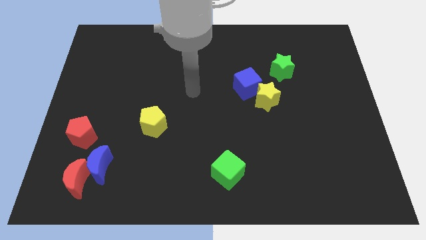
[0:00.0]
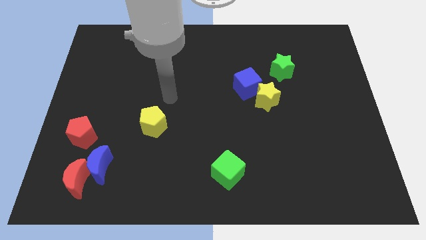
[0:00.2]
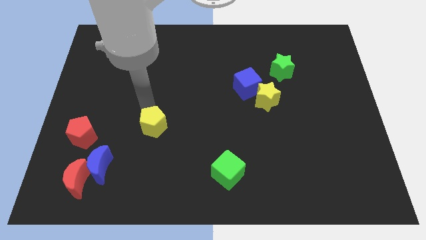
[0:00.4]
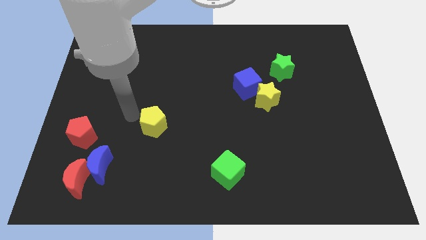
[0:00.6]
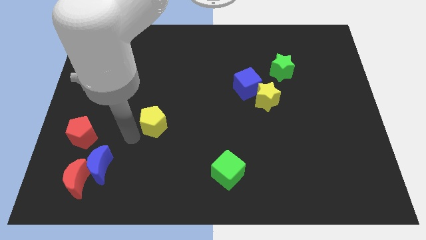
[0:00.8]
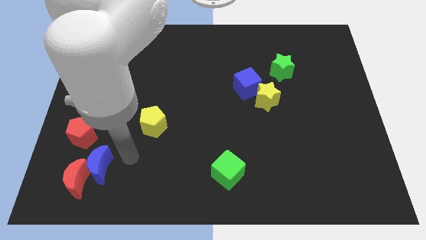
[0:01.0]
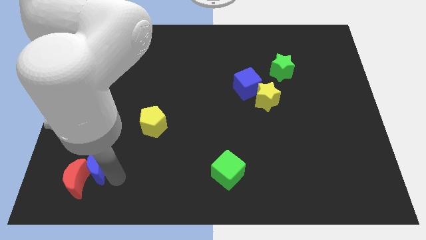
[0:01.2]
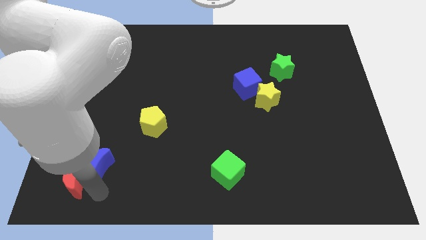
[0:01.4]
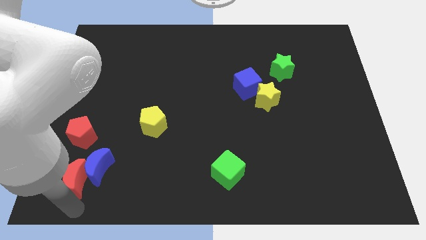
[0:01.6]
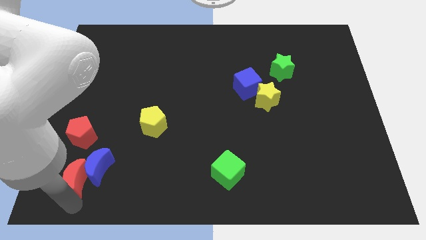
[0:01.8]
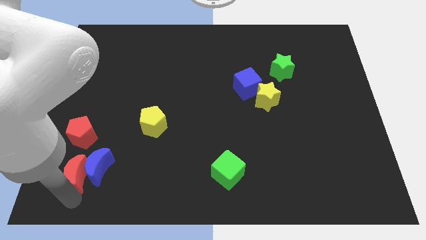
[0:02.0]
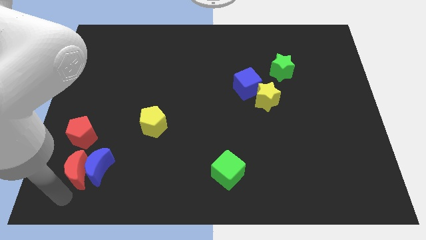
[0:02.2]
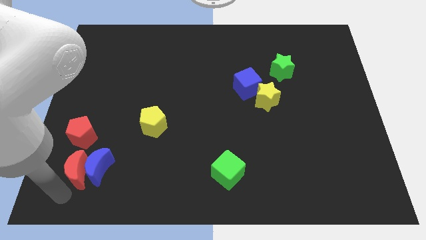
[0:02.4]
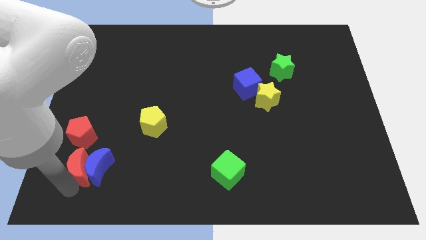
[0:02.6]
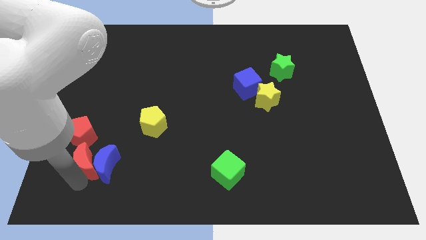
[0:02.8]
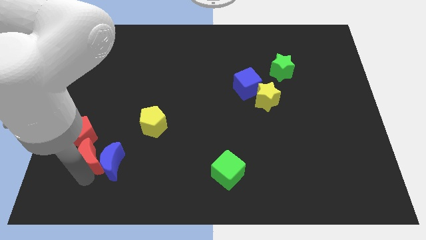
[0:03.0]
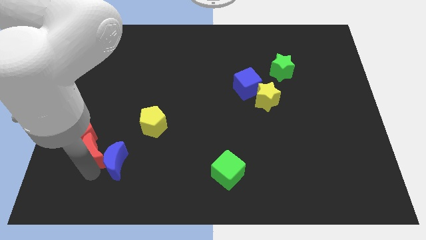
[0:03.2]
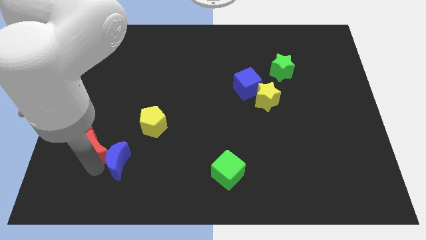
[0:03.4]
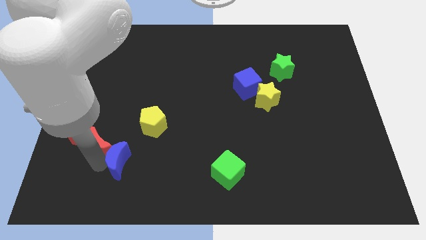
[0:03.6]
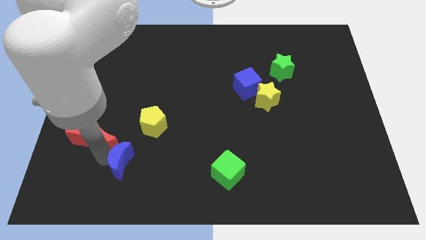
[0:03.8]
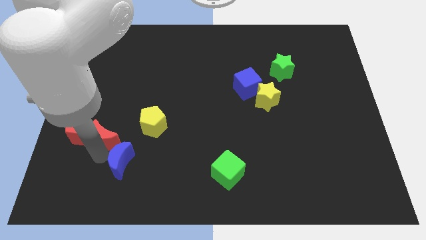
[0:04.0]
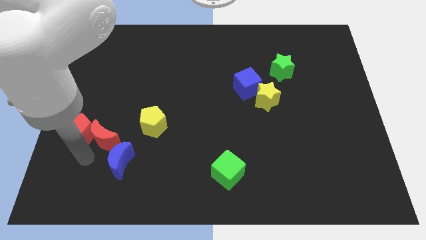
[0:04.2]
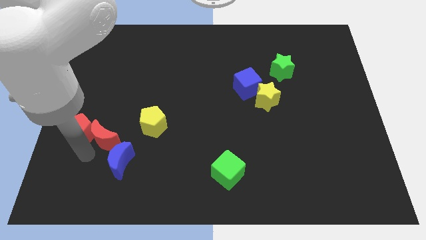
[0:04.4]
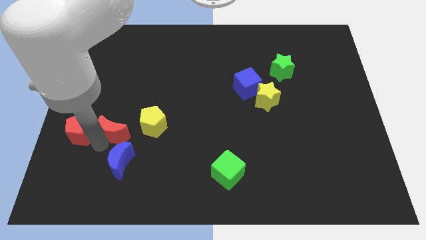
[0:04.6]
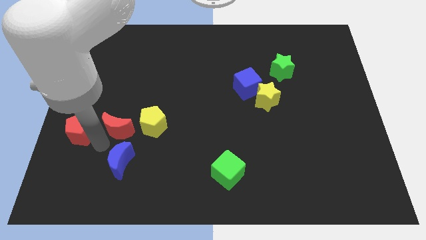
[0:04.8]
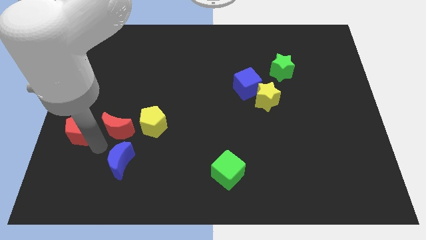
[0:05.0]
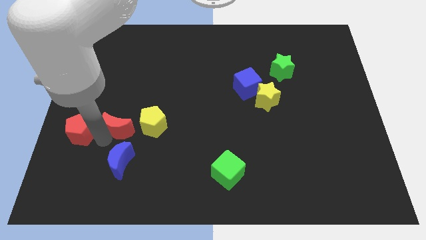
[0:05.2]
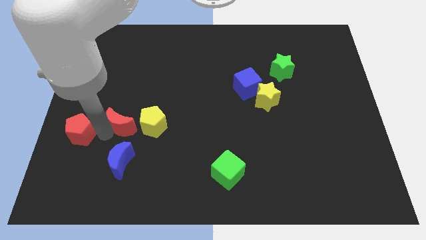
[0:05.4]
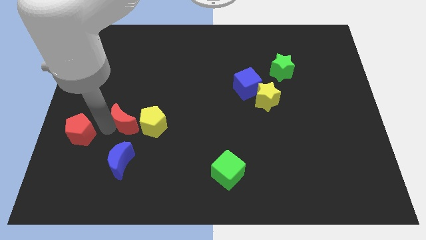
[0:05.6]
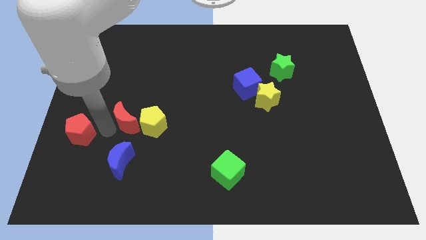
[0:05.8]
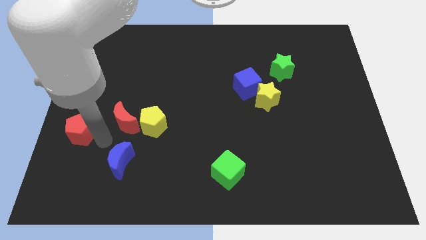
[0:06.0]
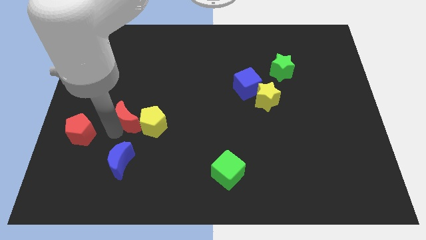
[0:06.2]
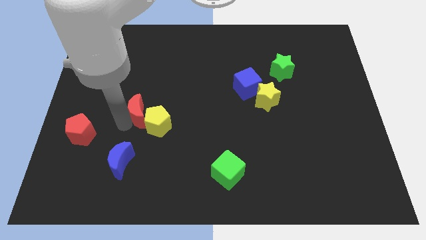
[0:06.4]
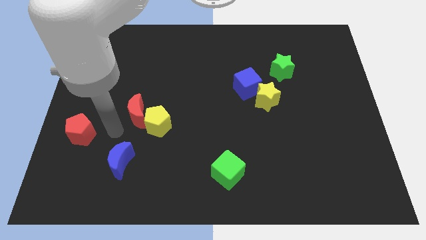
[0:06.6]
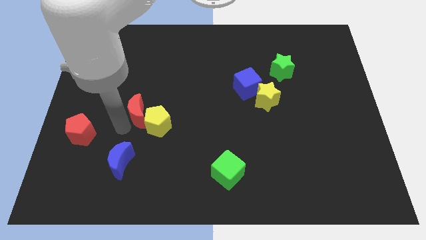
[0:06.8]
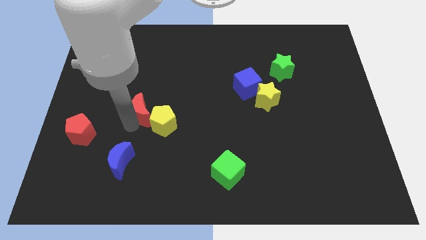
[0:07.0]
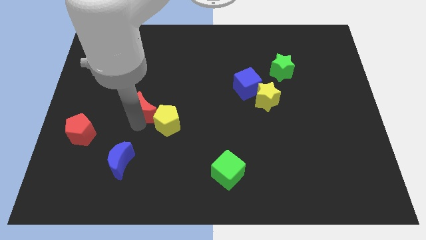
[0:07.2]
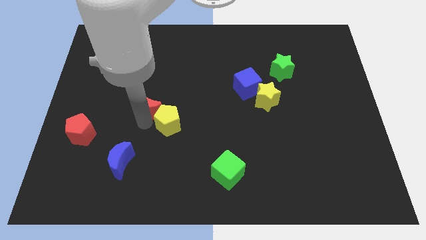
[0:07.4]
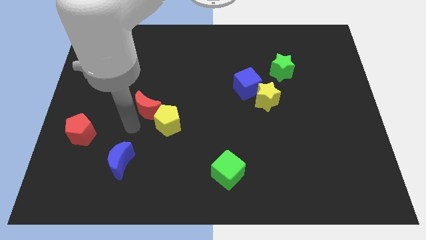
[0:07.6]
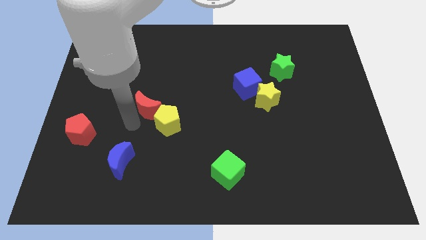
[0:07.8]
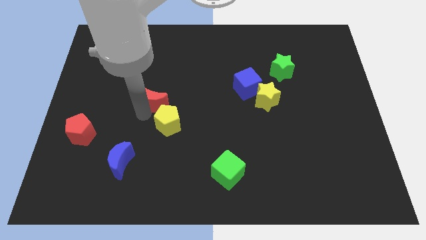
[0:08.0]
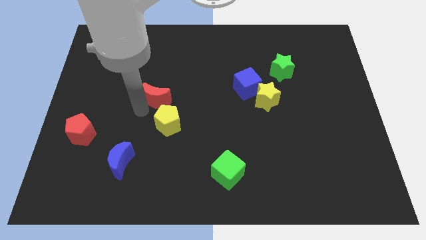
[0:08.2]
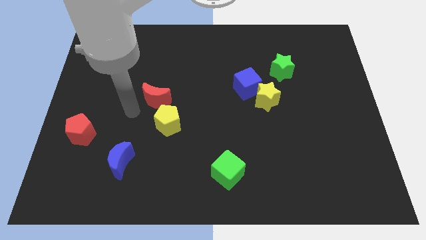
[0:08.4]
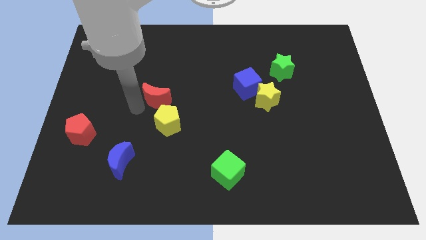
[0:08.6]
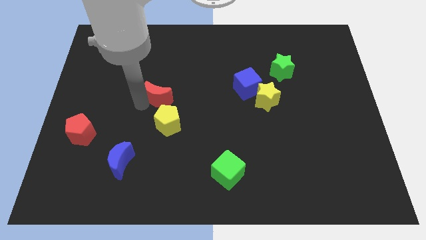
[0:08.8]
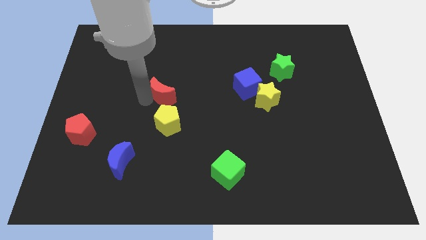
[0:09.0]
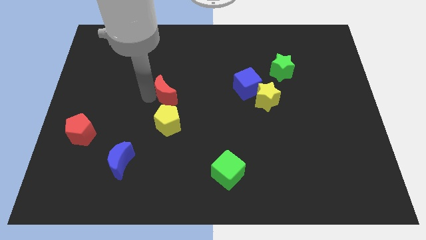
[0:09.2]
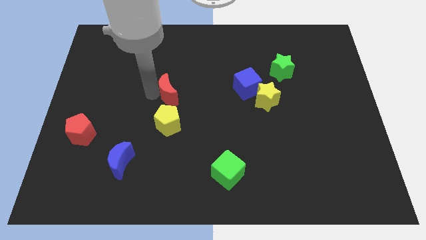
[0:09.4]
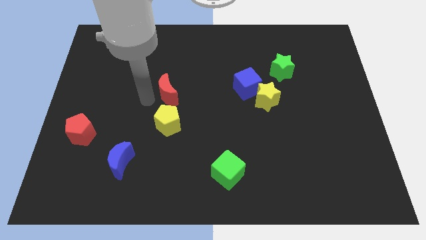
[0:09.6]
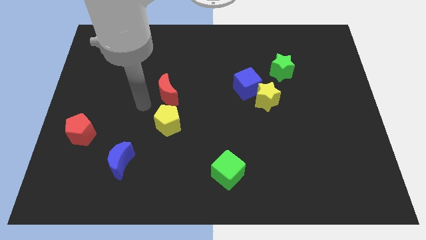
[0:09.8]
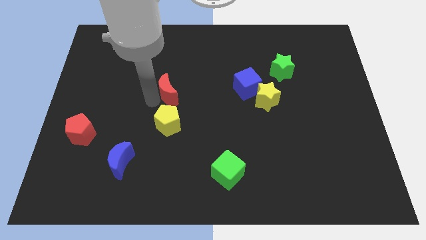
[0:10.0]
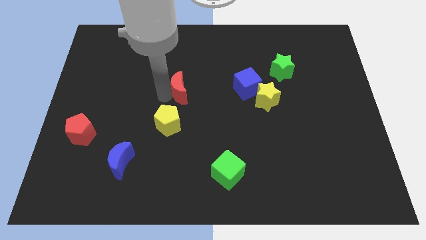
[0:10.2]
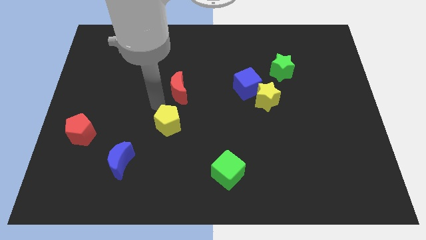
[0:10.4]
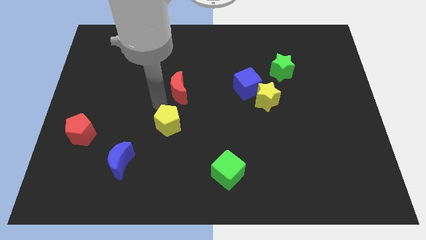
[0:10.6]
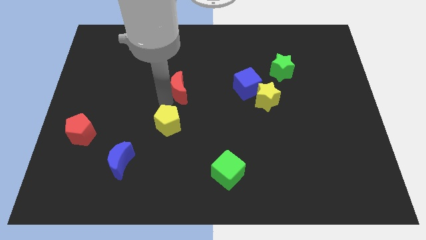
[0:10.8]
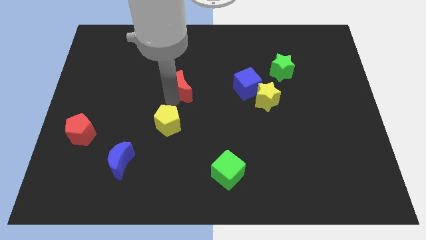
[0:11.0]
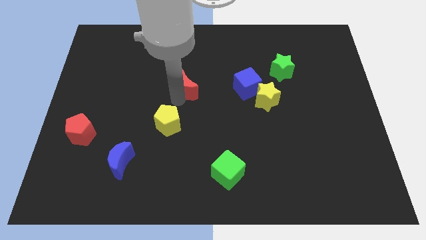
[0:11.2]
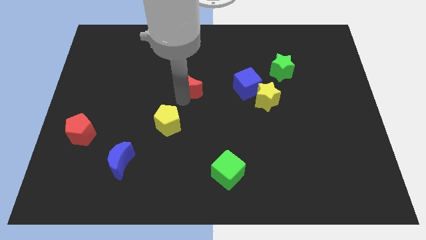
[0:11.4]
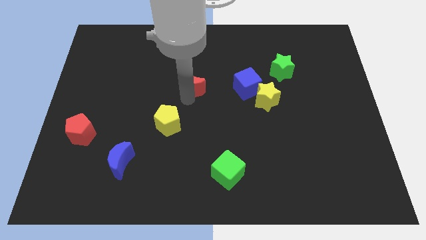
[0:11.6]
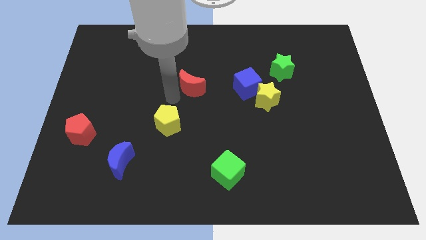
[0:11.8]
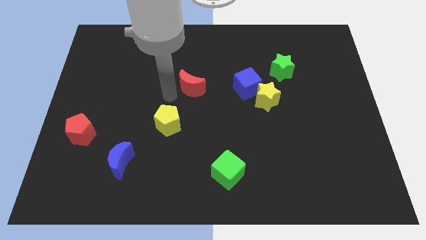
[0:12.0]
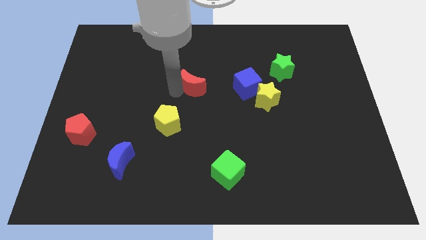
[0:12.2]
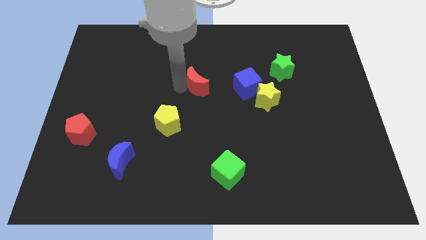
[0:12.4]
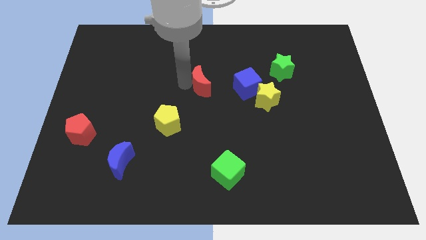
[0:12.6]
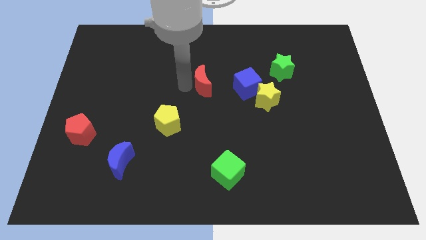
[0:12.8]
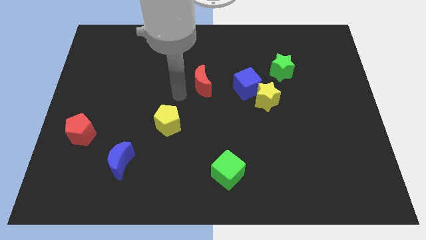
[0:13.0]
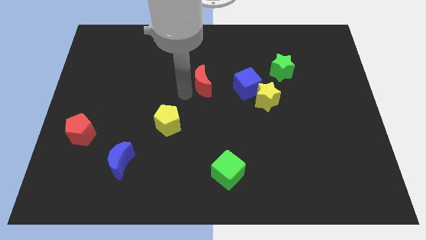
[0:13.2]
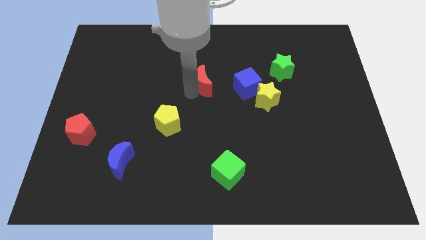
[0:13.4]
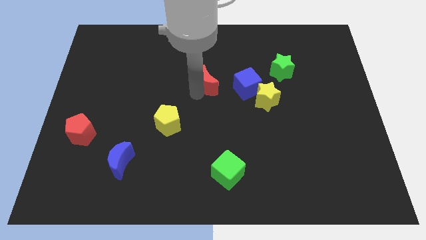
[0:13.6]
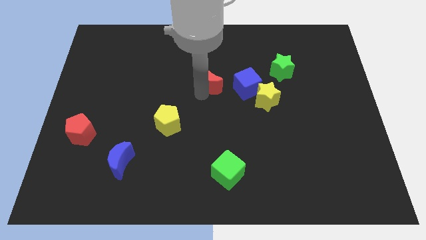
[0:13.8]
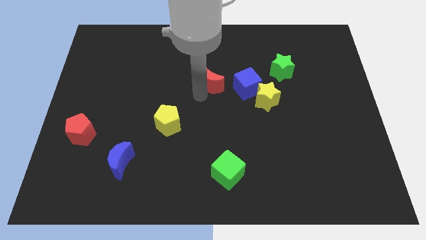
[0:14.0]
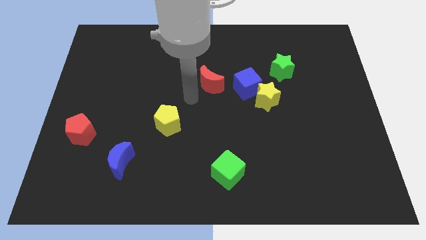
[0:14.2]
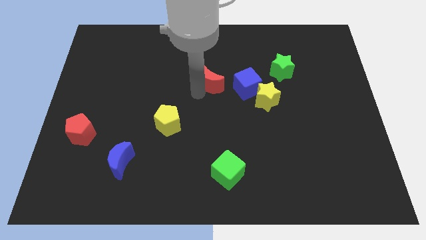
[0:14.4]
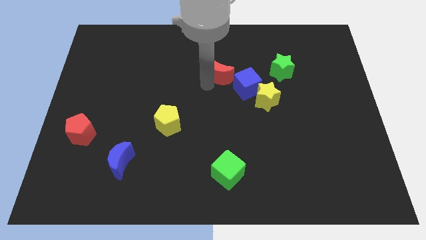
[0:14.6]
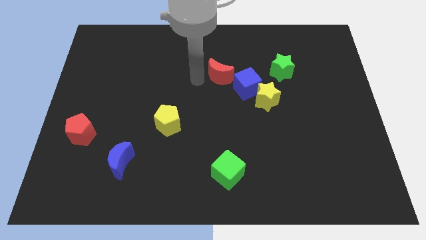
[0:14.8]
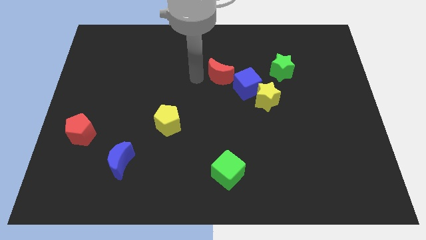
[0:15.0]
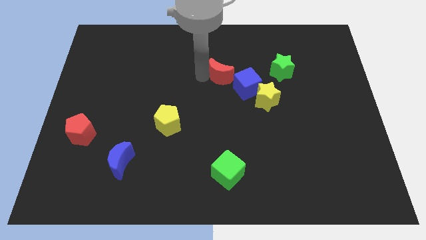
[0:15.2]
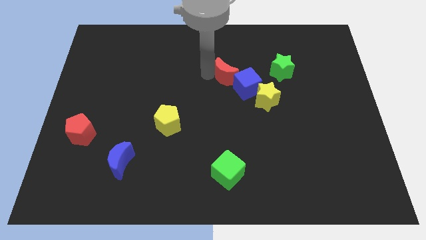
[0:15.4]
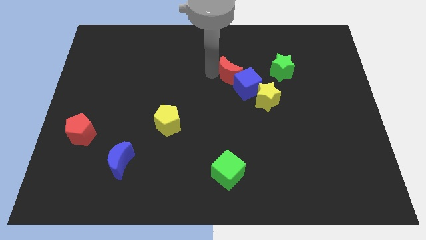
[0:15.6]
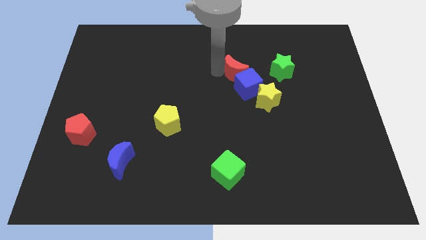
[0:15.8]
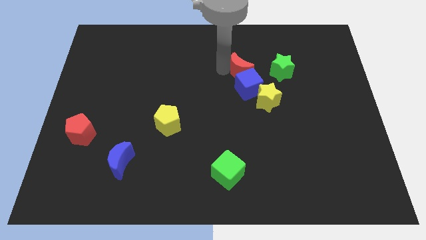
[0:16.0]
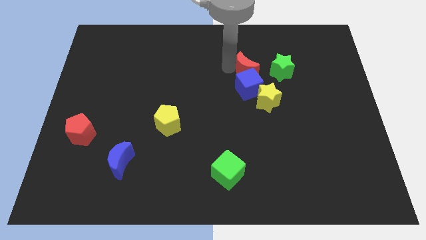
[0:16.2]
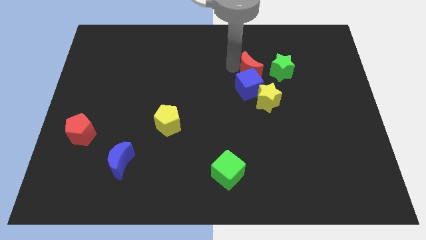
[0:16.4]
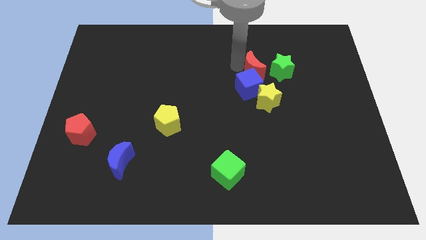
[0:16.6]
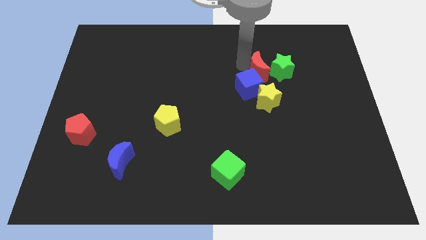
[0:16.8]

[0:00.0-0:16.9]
slide the red moon close to the green star
